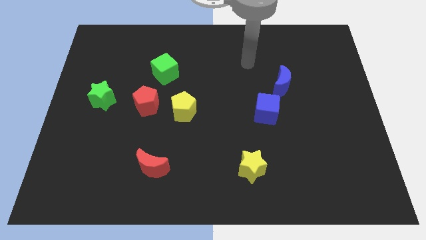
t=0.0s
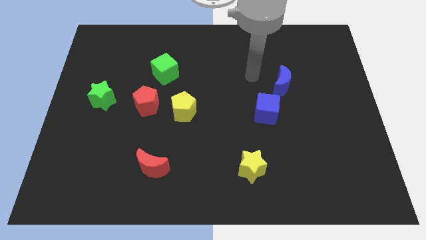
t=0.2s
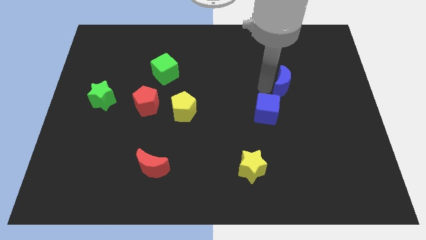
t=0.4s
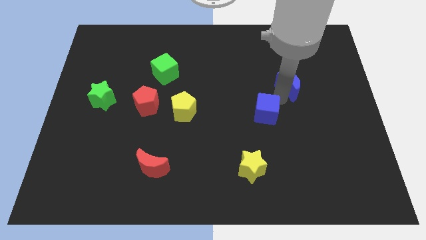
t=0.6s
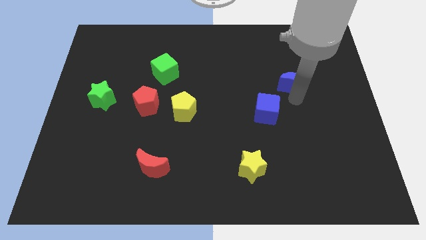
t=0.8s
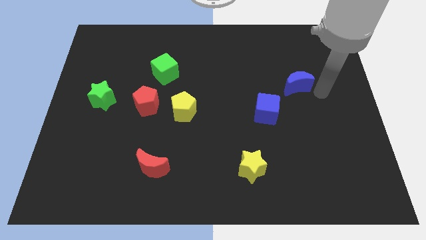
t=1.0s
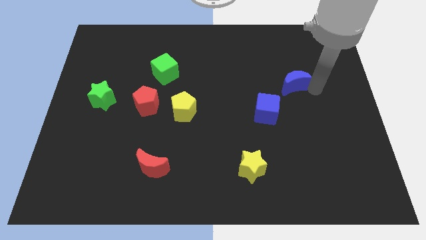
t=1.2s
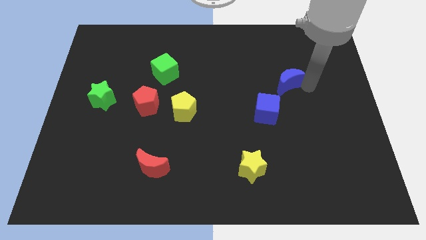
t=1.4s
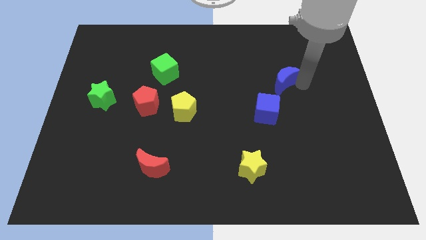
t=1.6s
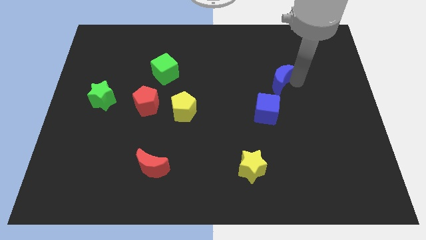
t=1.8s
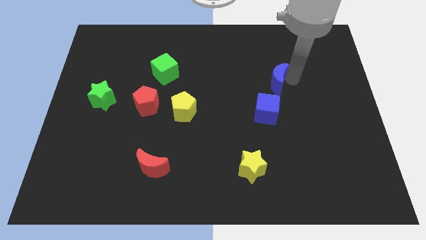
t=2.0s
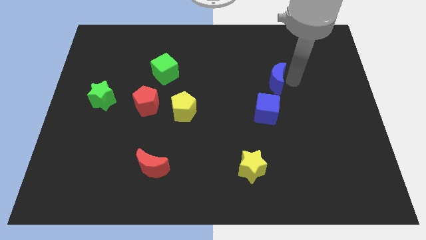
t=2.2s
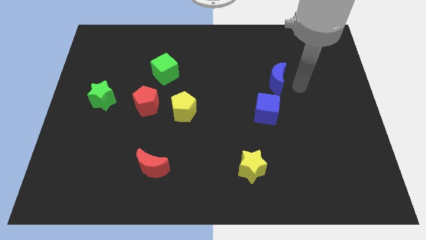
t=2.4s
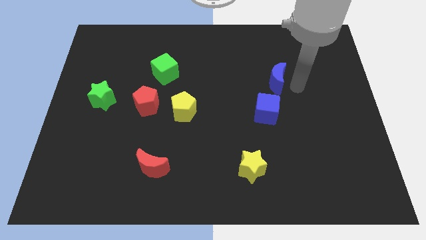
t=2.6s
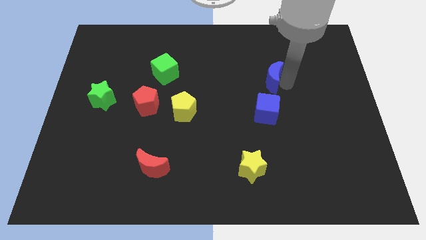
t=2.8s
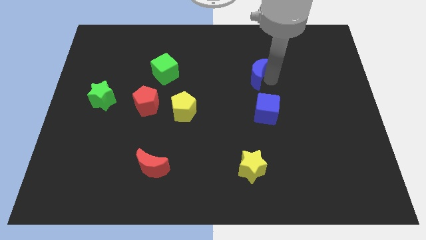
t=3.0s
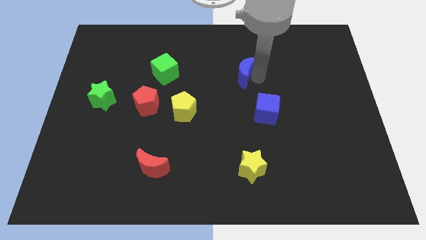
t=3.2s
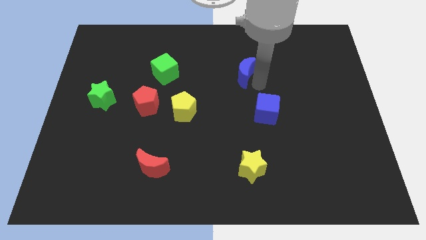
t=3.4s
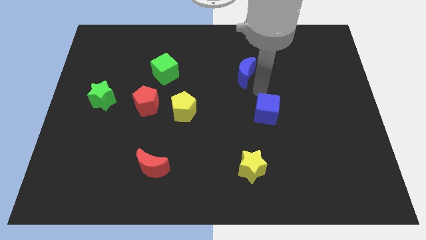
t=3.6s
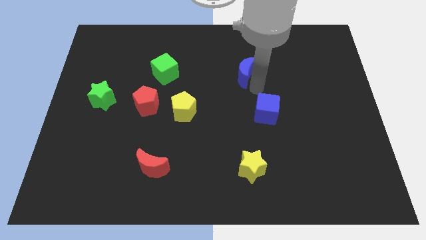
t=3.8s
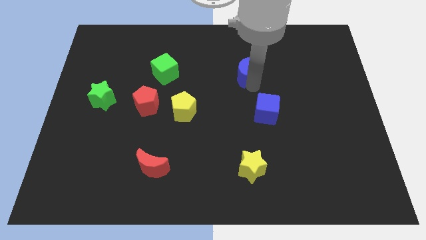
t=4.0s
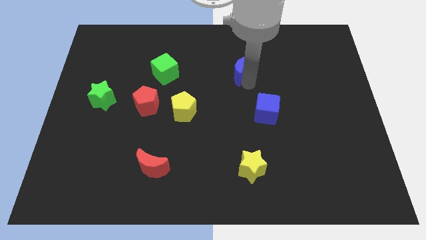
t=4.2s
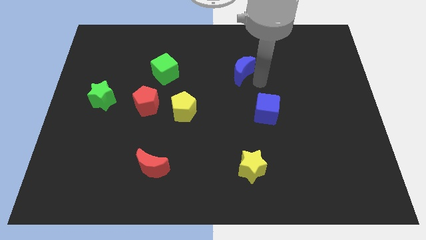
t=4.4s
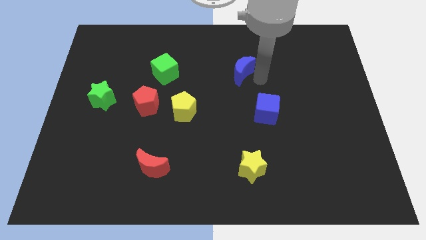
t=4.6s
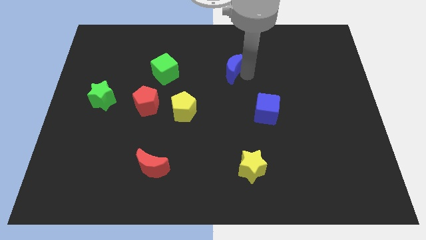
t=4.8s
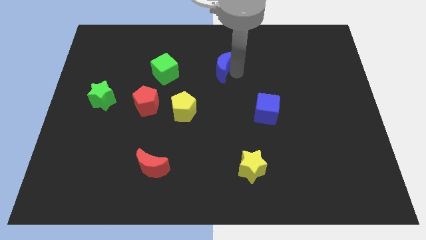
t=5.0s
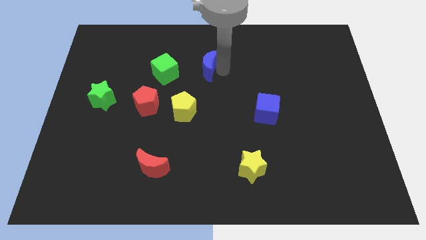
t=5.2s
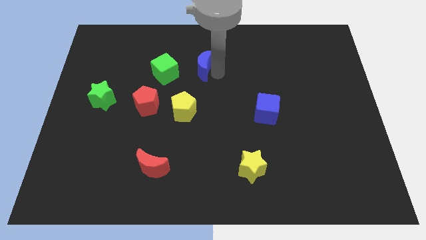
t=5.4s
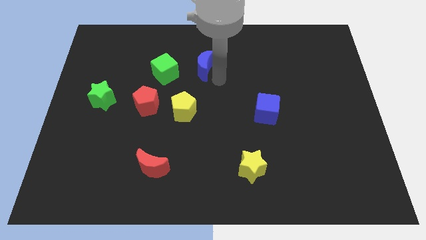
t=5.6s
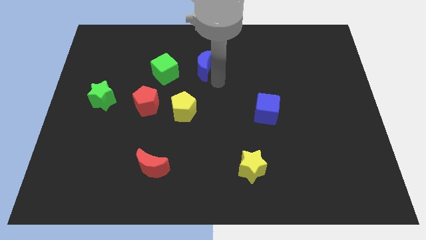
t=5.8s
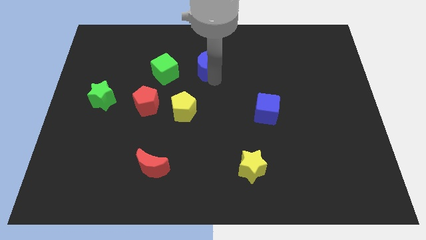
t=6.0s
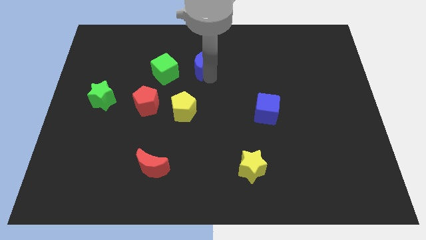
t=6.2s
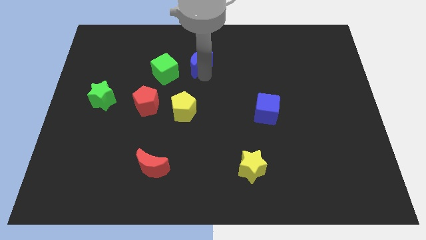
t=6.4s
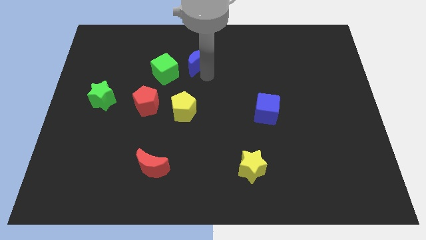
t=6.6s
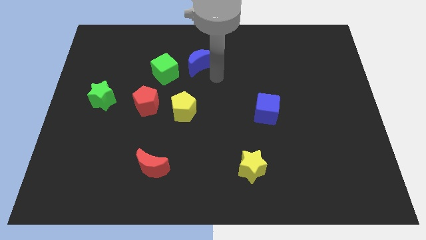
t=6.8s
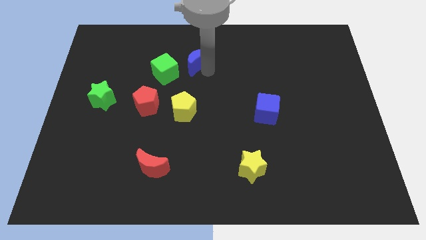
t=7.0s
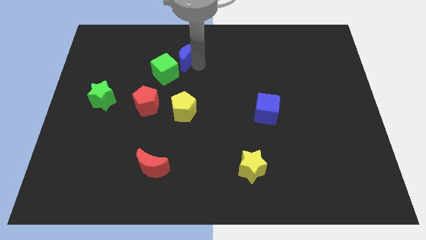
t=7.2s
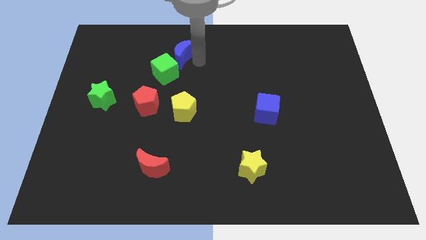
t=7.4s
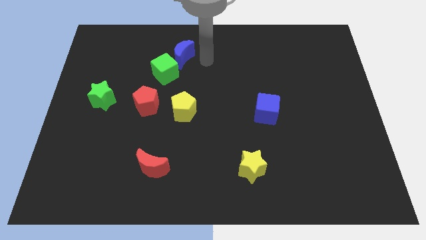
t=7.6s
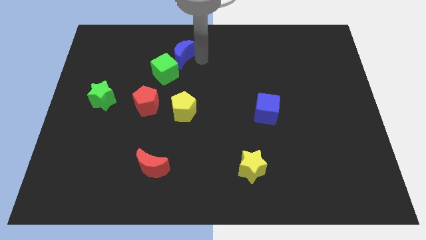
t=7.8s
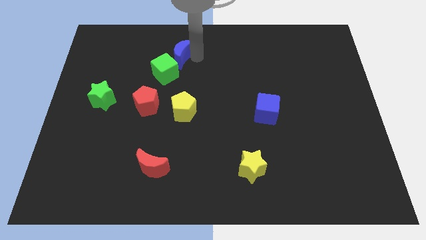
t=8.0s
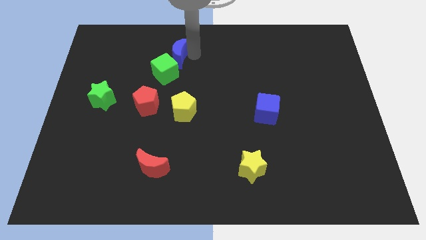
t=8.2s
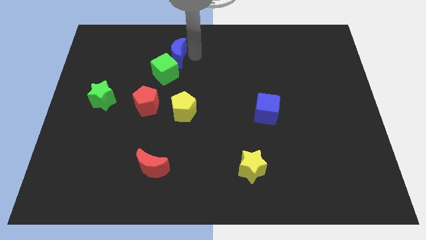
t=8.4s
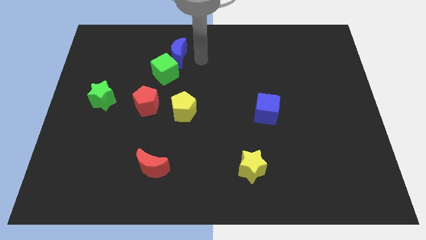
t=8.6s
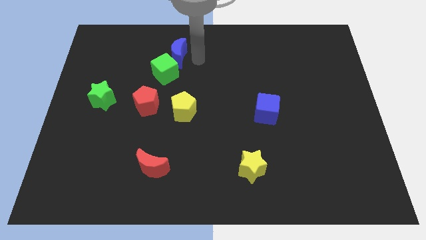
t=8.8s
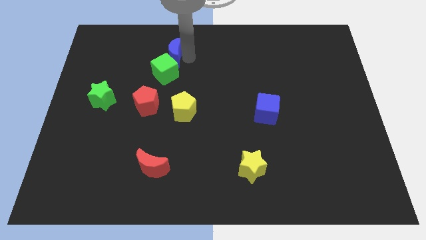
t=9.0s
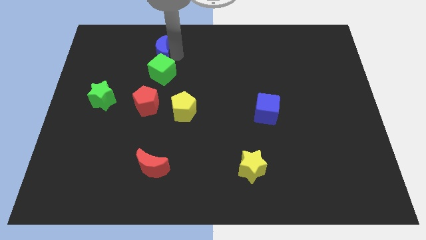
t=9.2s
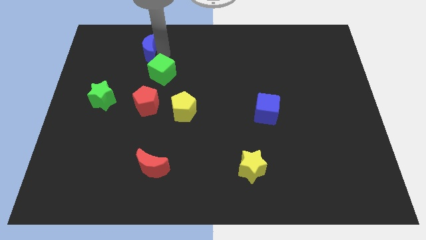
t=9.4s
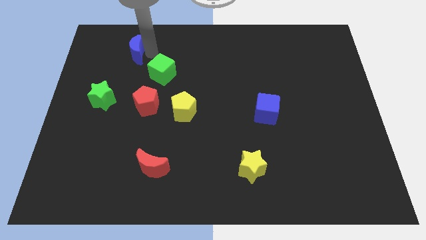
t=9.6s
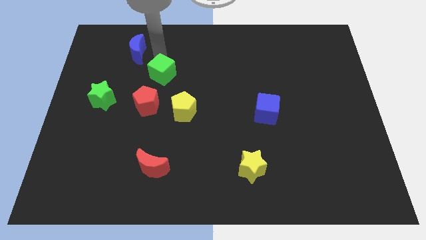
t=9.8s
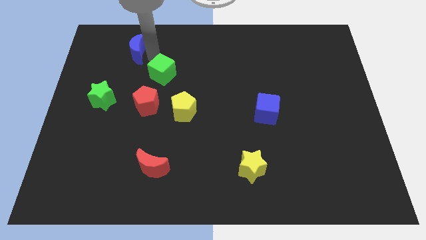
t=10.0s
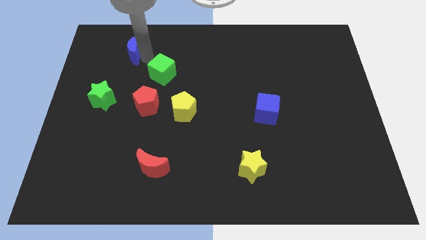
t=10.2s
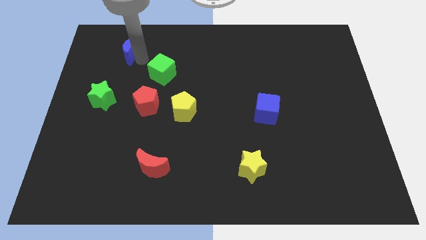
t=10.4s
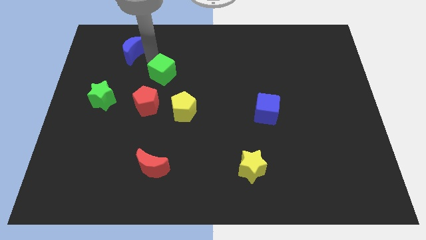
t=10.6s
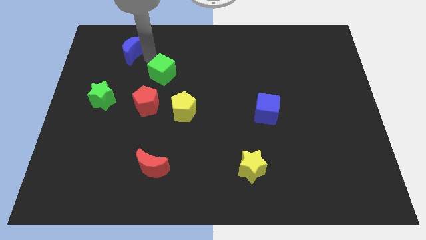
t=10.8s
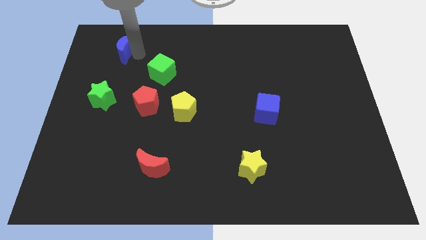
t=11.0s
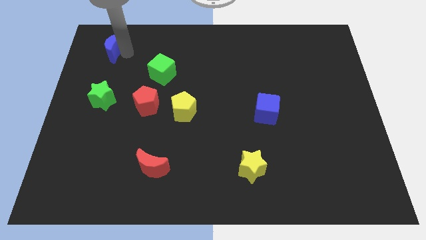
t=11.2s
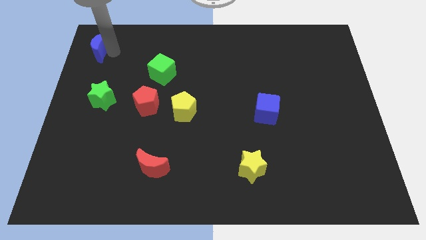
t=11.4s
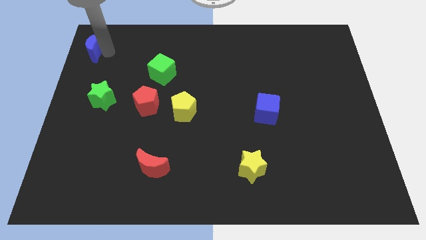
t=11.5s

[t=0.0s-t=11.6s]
move the blue moon to the upper left corner

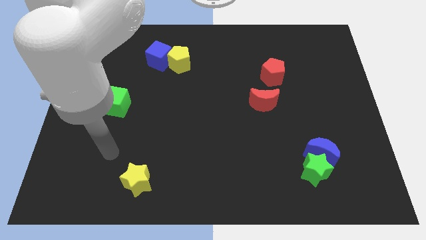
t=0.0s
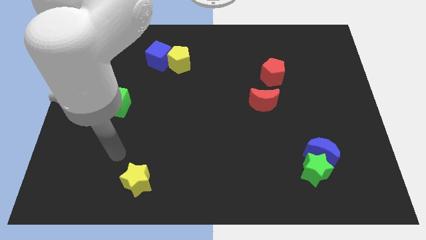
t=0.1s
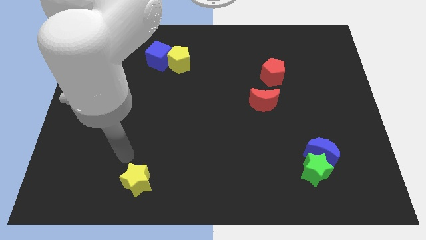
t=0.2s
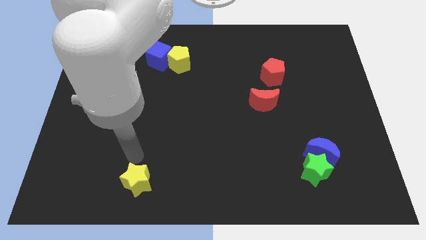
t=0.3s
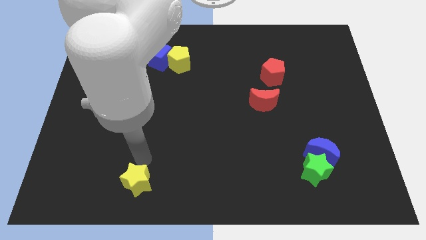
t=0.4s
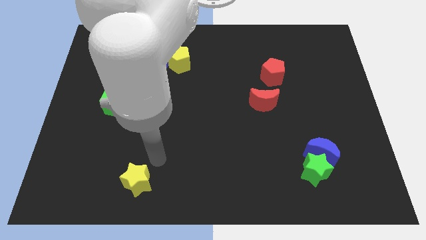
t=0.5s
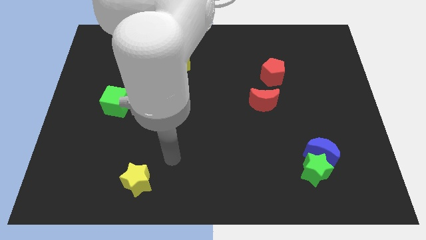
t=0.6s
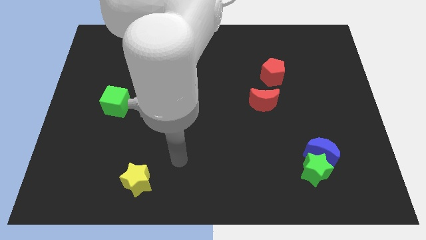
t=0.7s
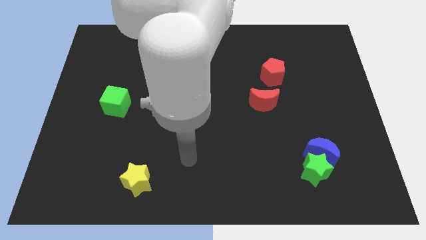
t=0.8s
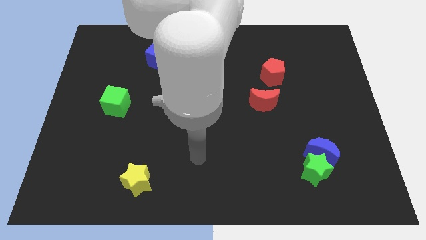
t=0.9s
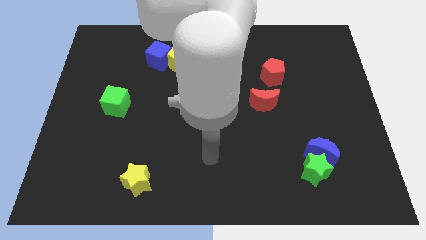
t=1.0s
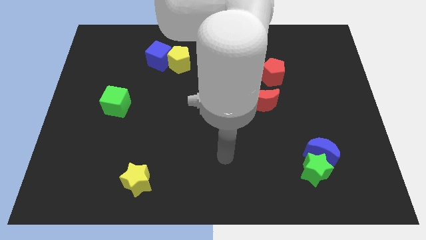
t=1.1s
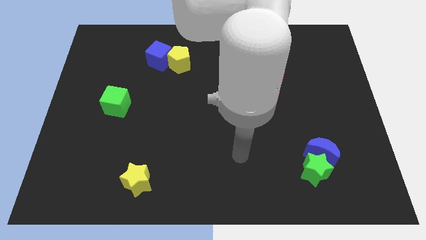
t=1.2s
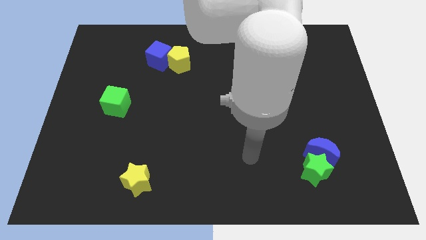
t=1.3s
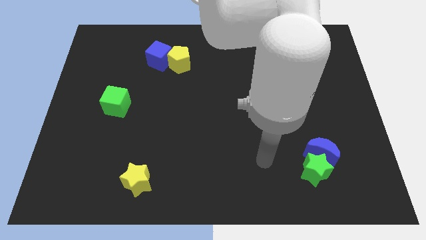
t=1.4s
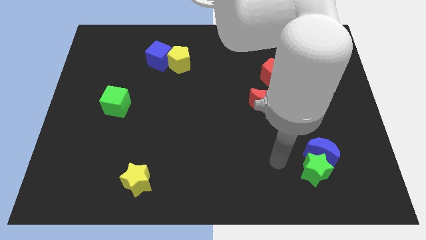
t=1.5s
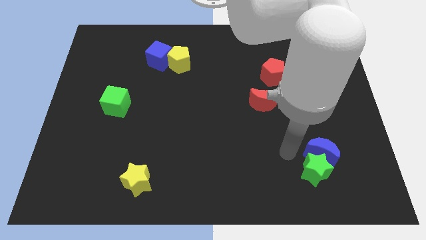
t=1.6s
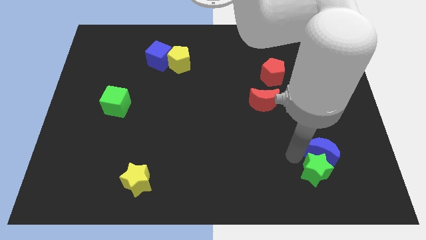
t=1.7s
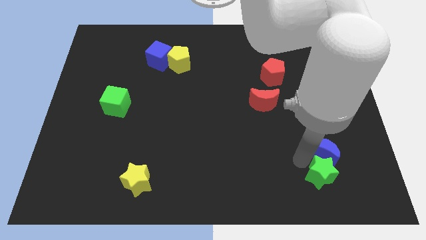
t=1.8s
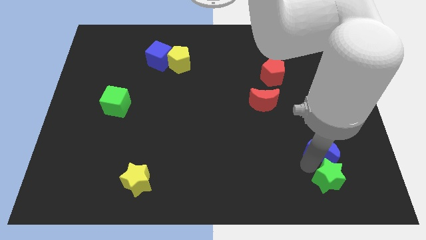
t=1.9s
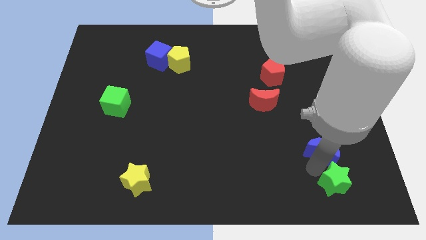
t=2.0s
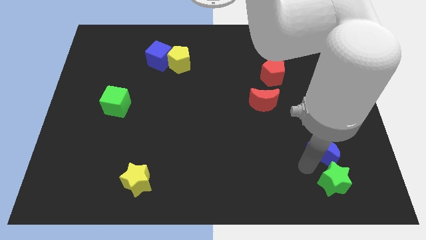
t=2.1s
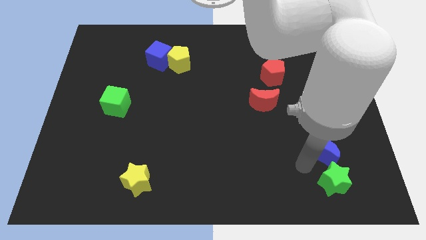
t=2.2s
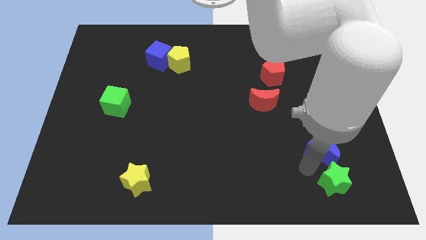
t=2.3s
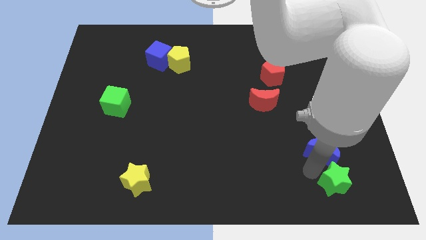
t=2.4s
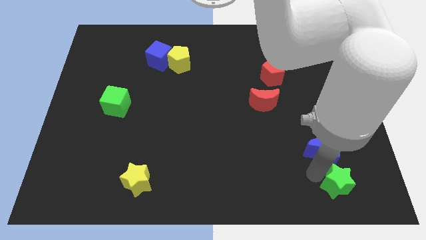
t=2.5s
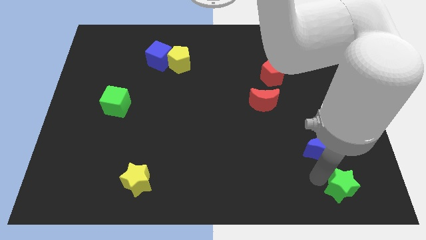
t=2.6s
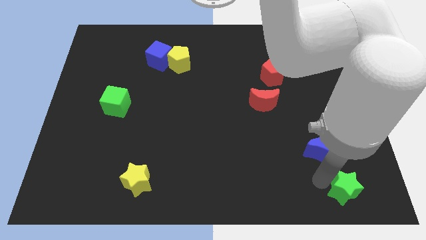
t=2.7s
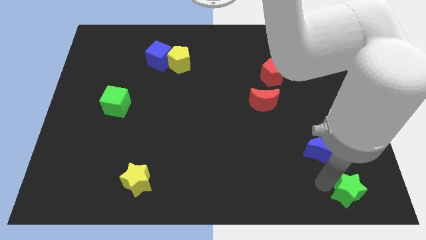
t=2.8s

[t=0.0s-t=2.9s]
slide the green star to the bottom right of the board
